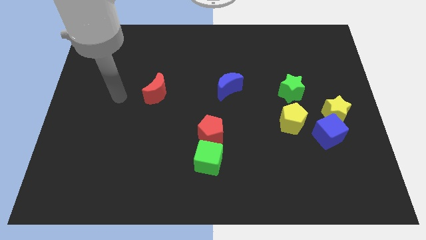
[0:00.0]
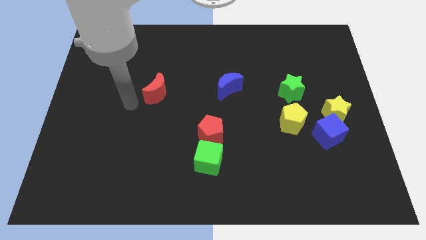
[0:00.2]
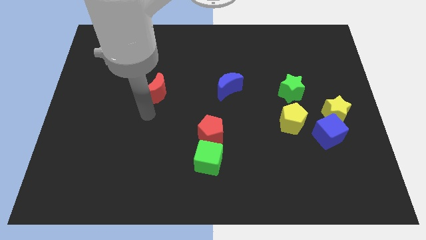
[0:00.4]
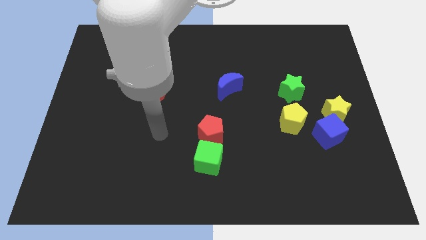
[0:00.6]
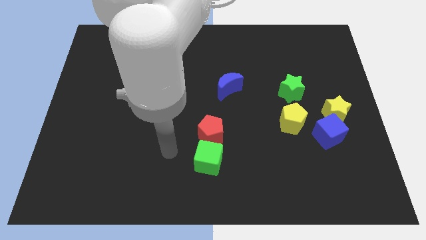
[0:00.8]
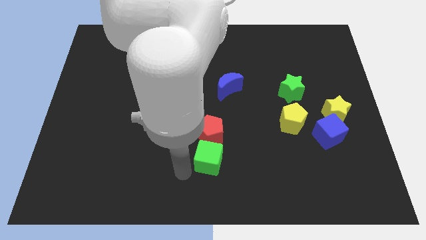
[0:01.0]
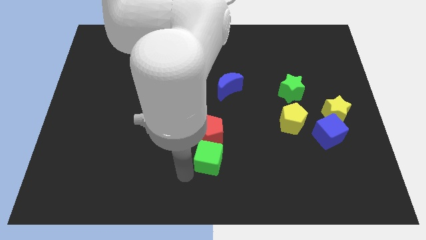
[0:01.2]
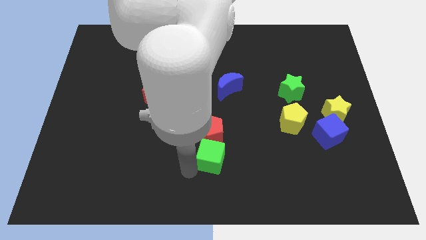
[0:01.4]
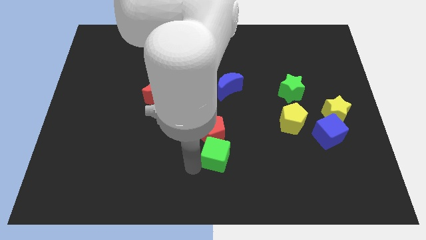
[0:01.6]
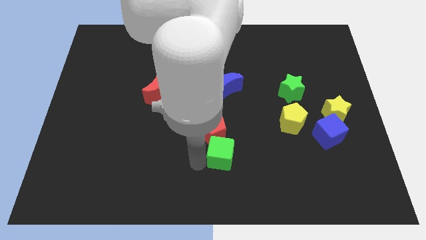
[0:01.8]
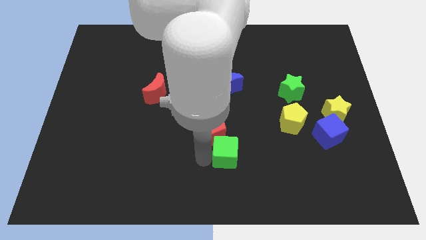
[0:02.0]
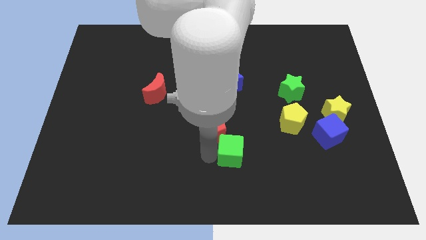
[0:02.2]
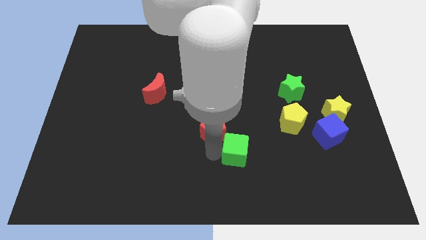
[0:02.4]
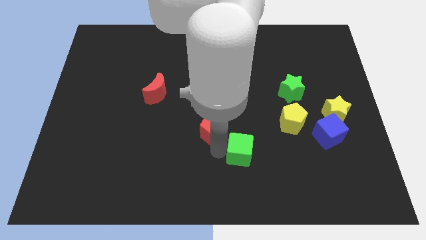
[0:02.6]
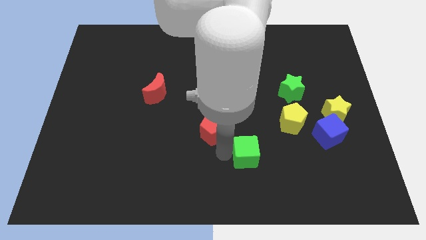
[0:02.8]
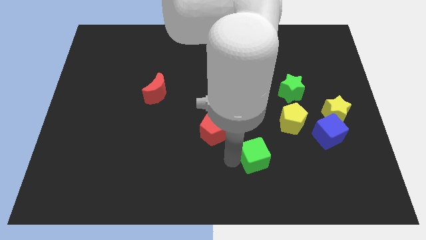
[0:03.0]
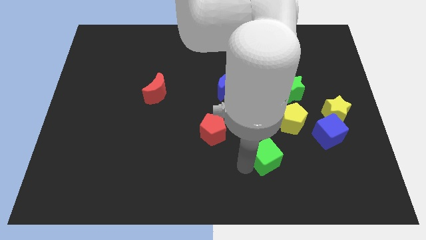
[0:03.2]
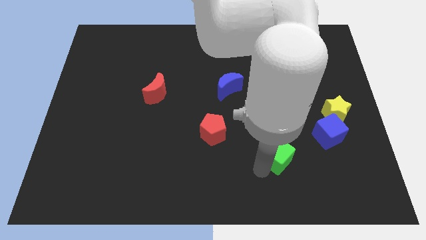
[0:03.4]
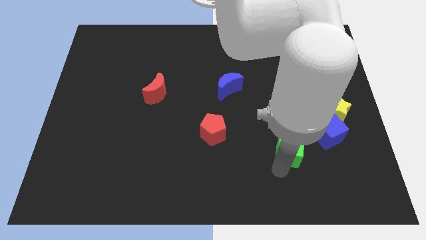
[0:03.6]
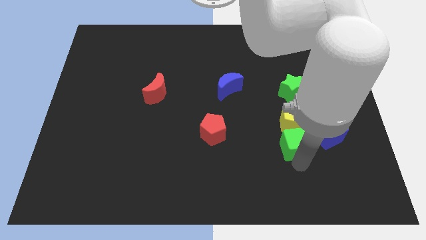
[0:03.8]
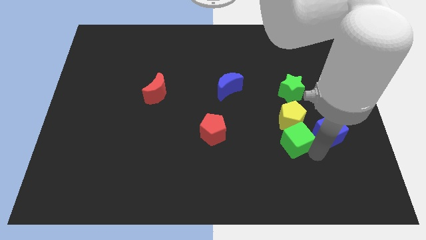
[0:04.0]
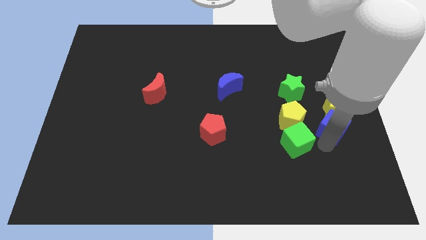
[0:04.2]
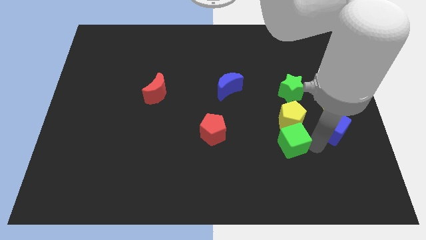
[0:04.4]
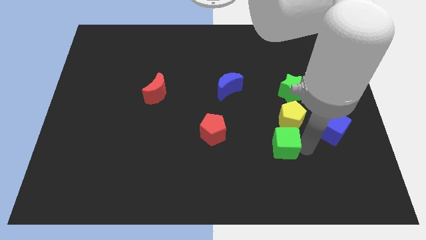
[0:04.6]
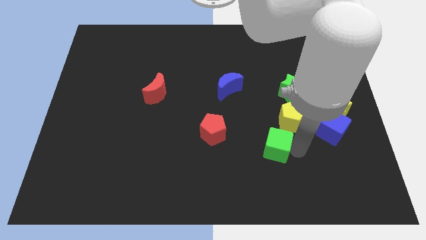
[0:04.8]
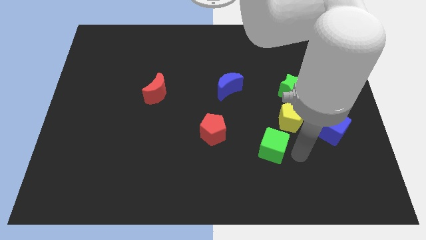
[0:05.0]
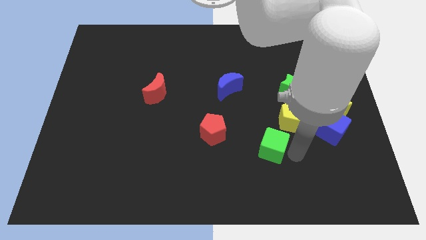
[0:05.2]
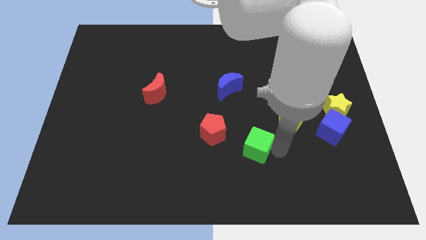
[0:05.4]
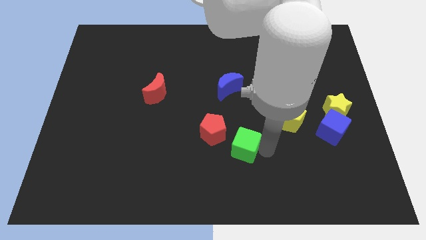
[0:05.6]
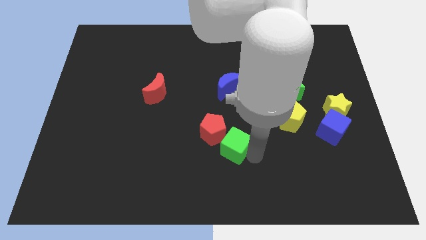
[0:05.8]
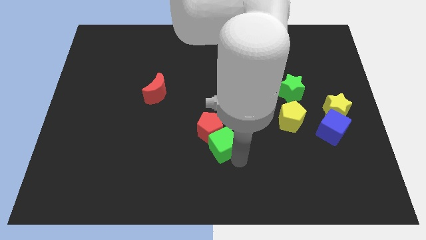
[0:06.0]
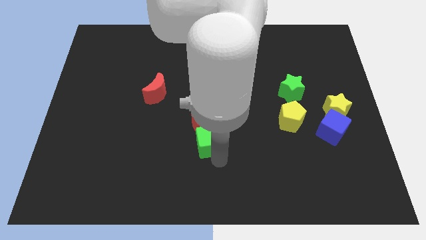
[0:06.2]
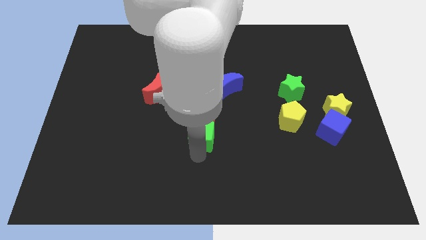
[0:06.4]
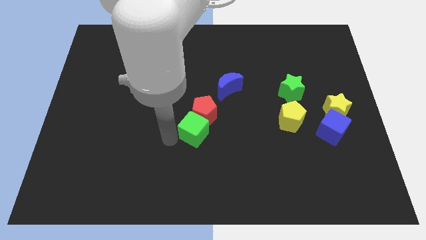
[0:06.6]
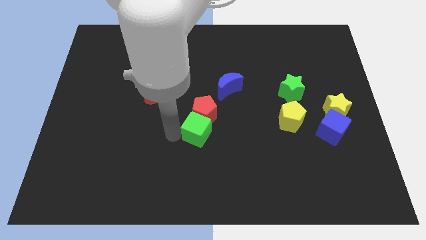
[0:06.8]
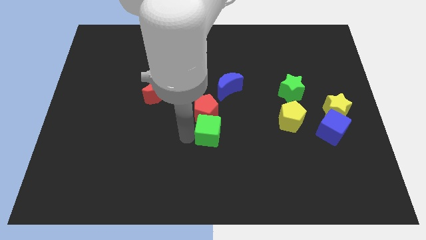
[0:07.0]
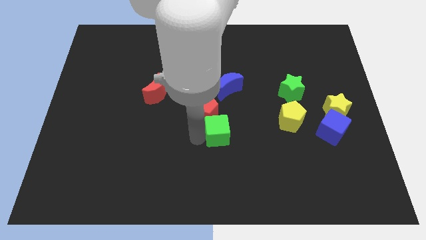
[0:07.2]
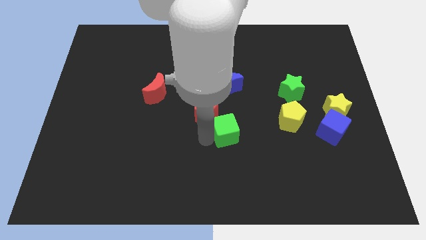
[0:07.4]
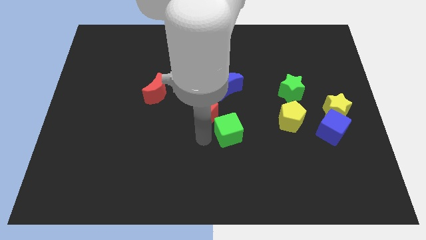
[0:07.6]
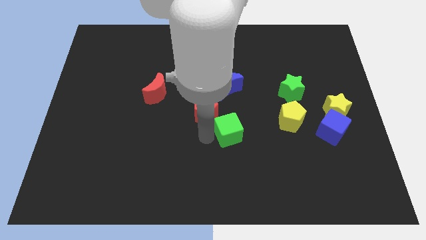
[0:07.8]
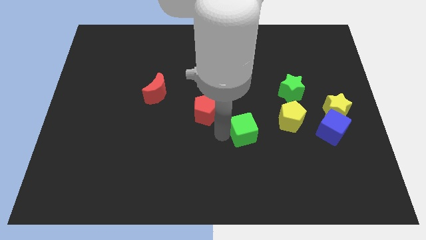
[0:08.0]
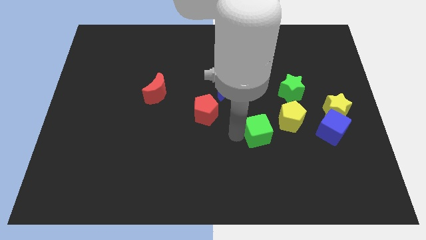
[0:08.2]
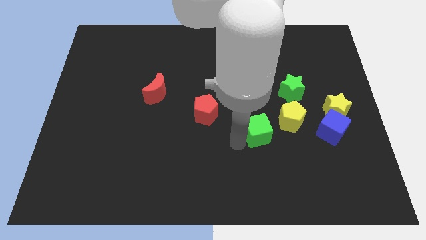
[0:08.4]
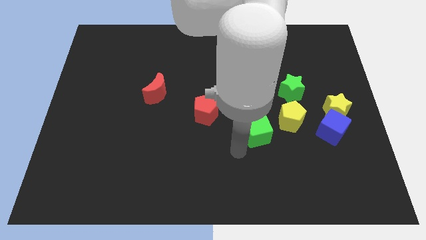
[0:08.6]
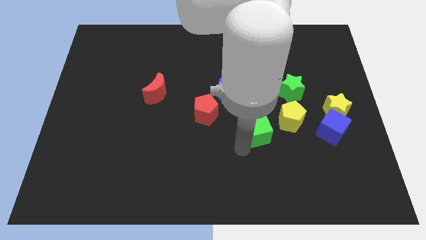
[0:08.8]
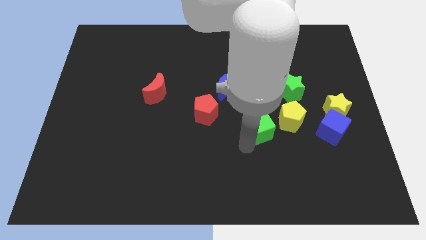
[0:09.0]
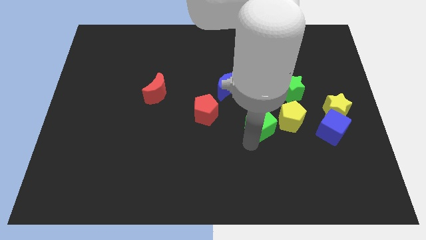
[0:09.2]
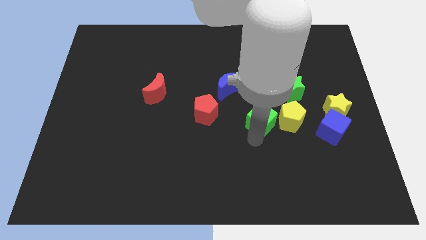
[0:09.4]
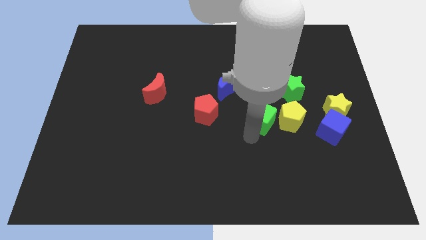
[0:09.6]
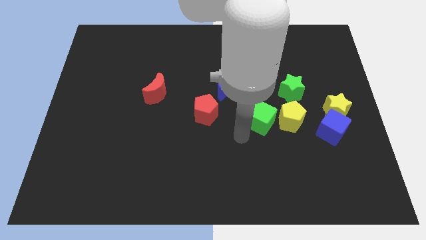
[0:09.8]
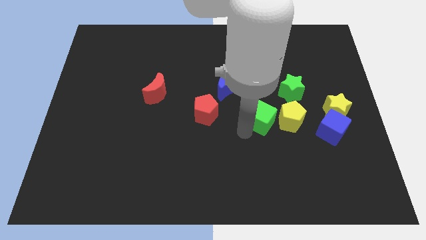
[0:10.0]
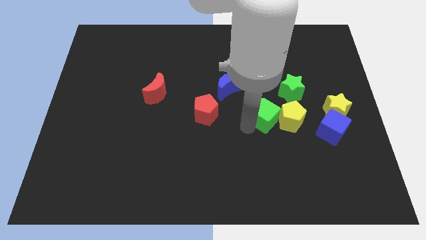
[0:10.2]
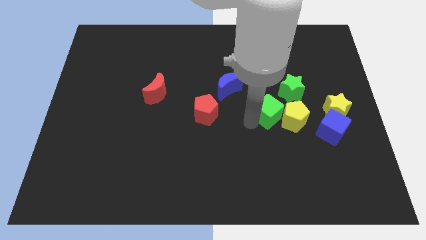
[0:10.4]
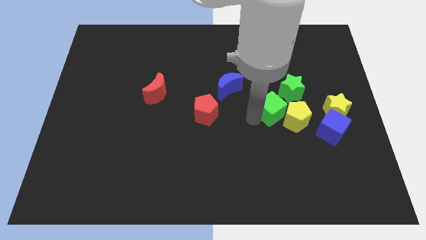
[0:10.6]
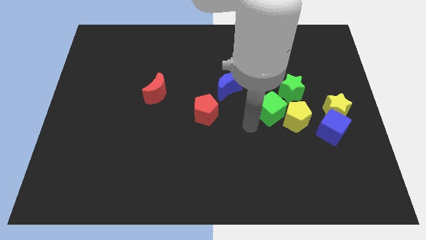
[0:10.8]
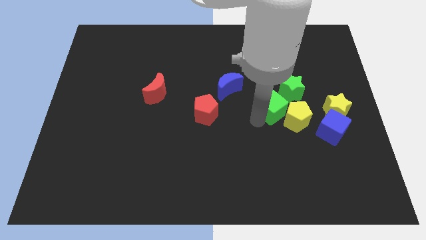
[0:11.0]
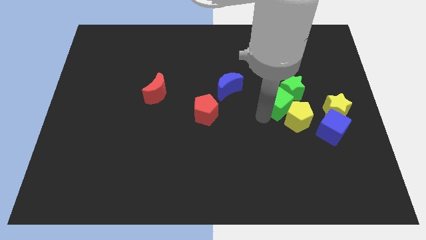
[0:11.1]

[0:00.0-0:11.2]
put the green cube close to the green star

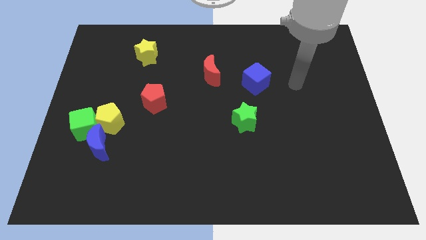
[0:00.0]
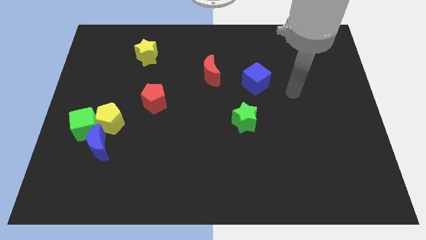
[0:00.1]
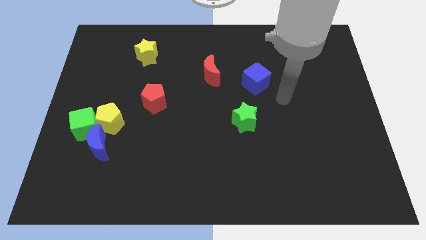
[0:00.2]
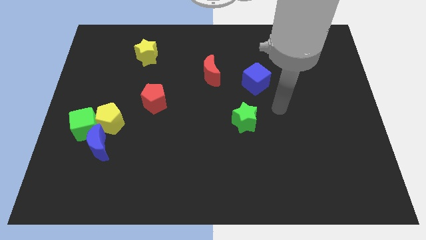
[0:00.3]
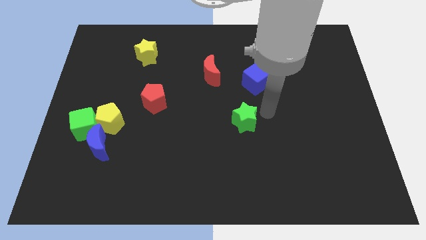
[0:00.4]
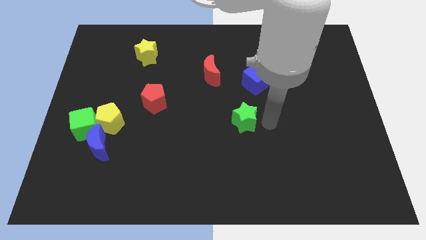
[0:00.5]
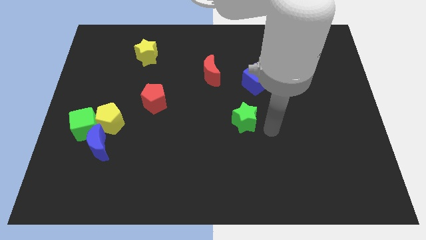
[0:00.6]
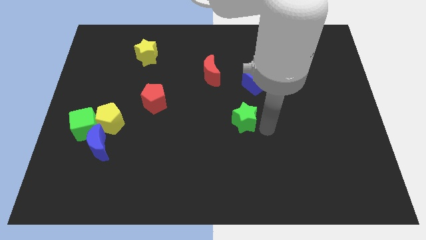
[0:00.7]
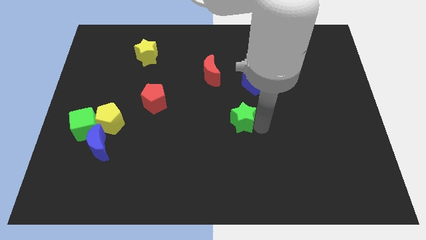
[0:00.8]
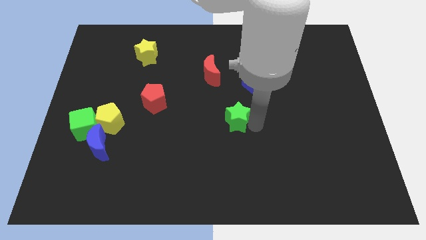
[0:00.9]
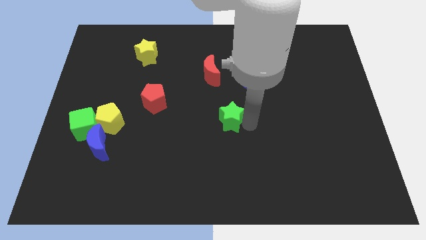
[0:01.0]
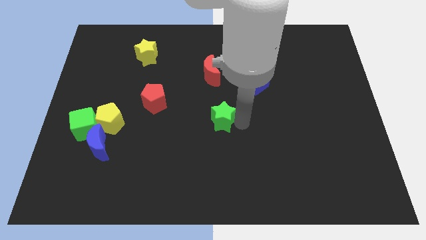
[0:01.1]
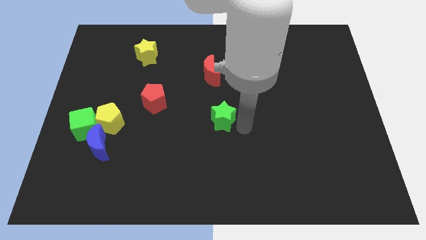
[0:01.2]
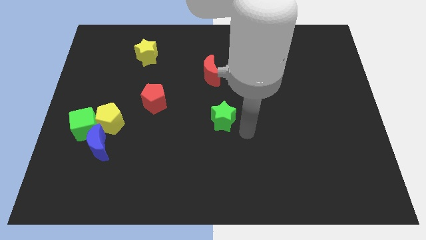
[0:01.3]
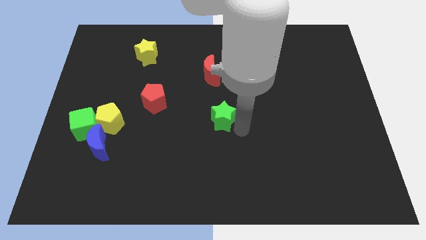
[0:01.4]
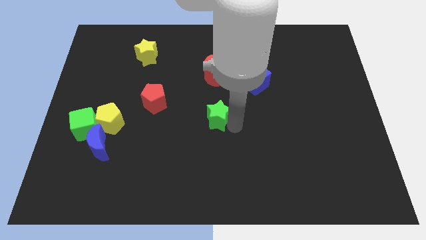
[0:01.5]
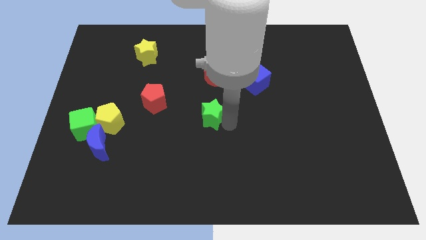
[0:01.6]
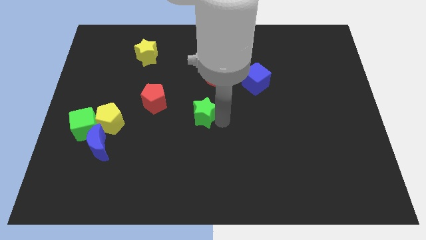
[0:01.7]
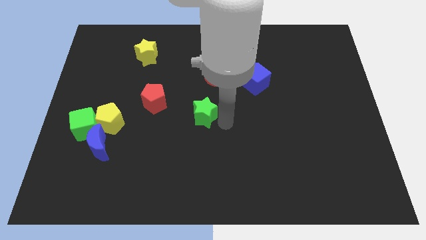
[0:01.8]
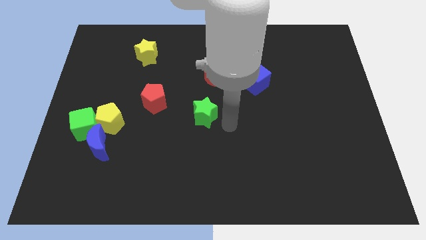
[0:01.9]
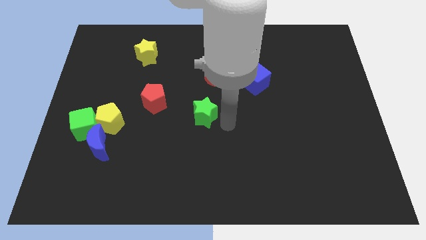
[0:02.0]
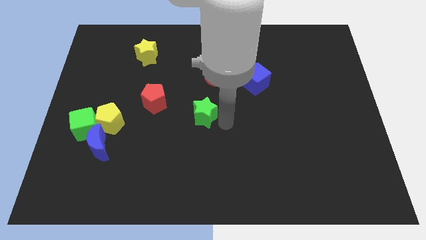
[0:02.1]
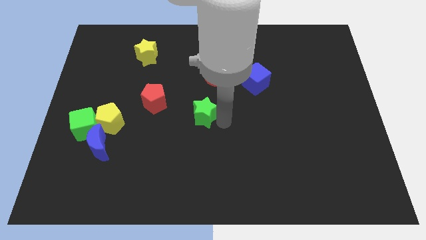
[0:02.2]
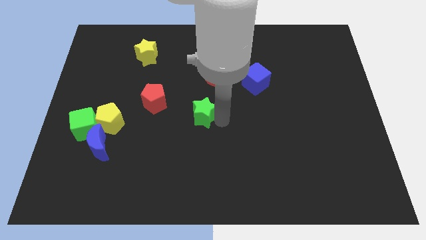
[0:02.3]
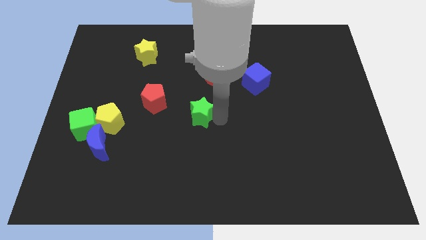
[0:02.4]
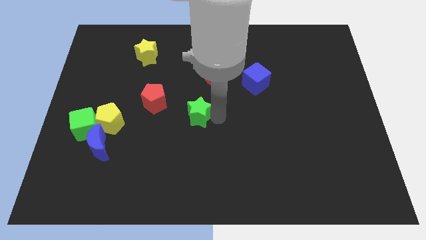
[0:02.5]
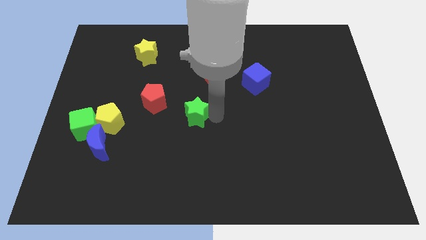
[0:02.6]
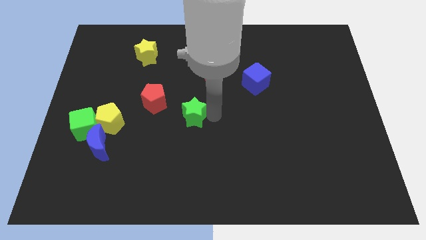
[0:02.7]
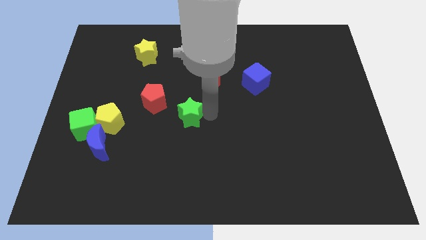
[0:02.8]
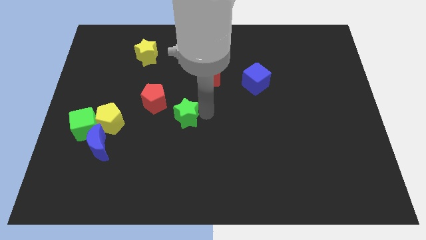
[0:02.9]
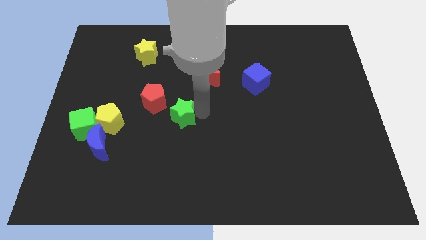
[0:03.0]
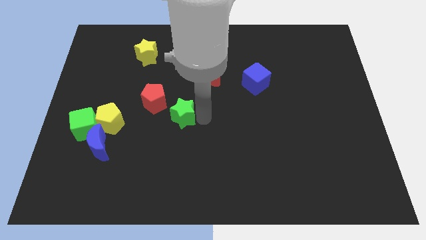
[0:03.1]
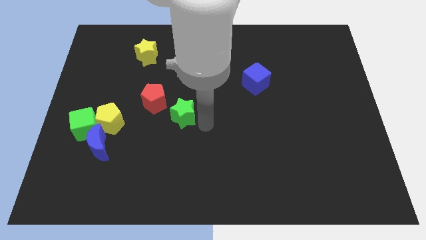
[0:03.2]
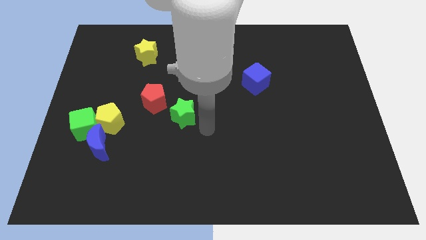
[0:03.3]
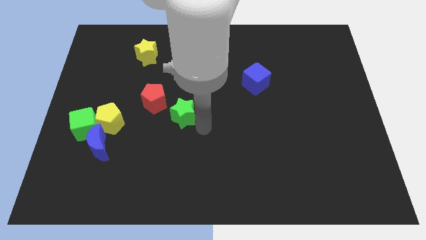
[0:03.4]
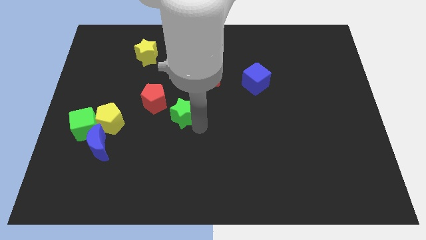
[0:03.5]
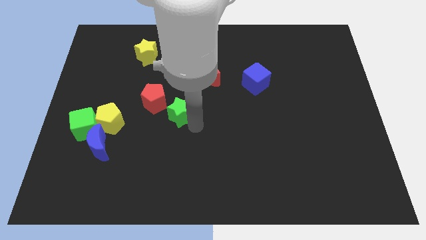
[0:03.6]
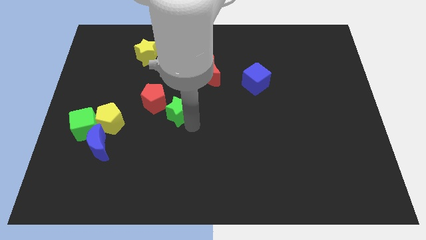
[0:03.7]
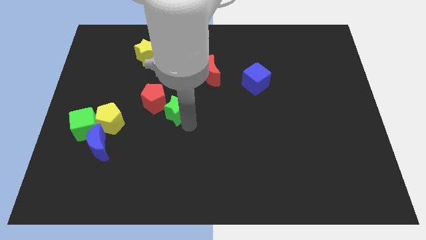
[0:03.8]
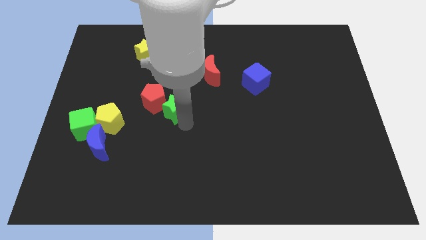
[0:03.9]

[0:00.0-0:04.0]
put the green star close to the red pentagon
